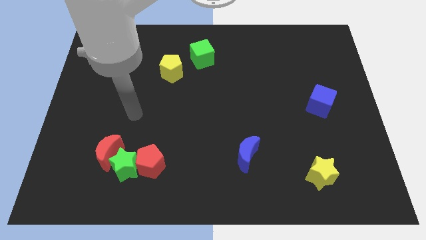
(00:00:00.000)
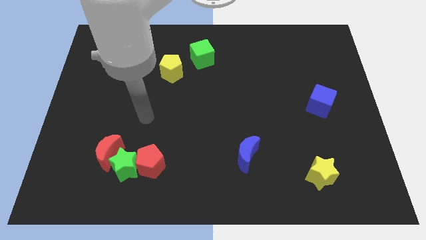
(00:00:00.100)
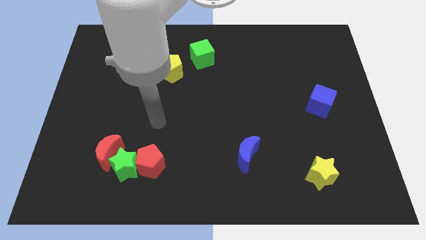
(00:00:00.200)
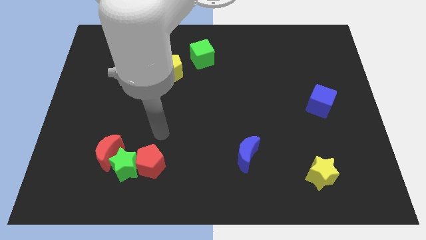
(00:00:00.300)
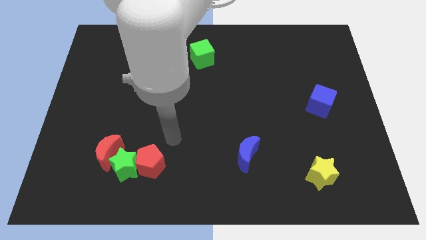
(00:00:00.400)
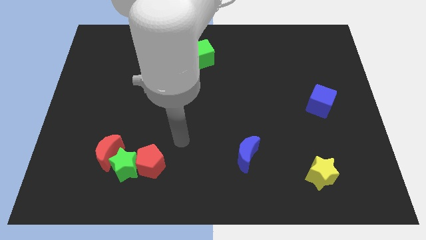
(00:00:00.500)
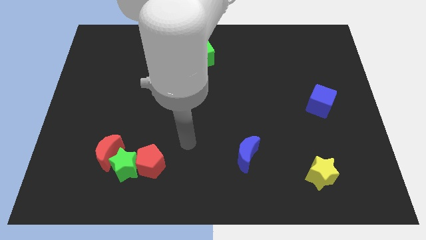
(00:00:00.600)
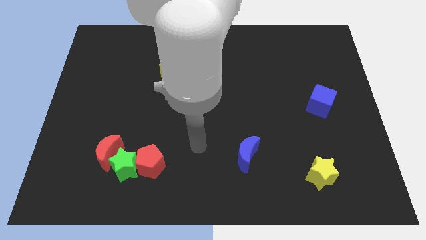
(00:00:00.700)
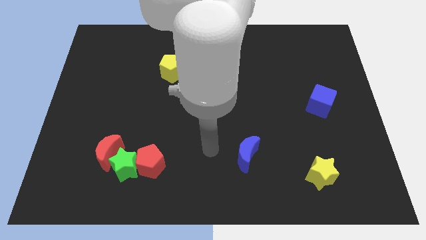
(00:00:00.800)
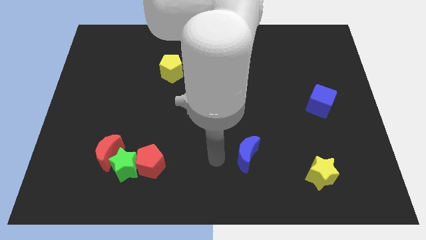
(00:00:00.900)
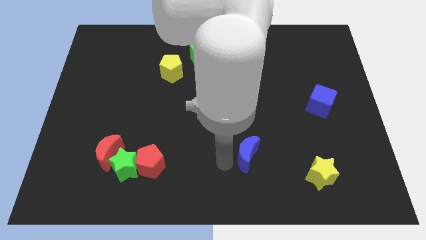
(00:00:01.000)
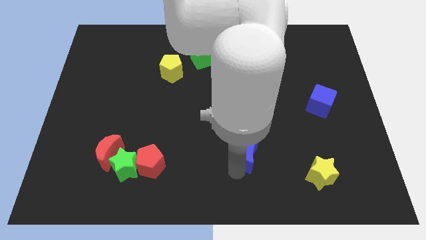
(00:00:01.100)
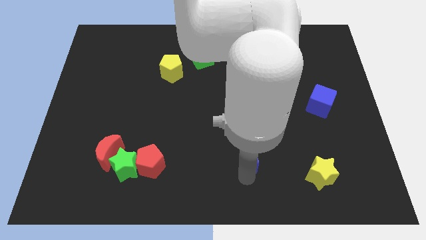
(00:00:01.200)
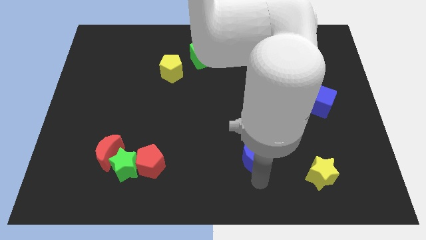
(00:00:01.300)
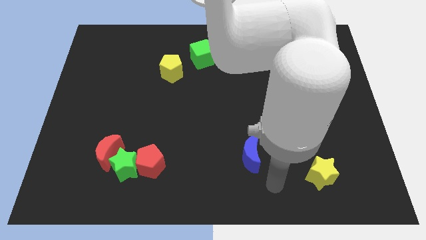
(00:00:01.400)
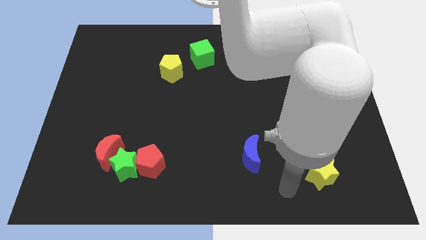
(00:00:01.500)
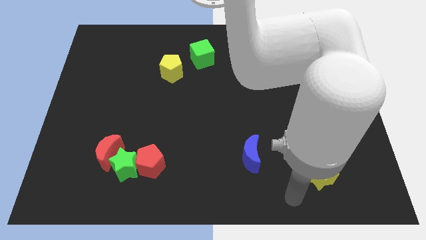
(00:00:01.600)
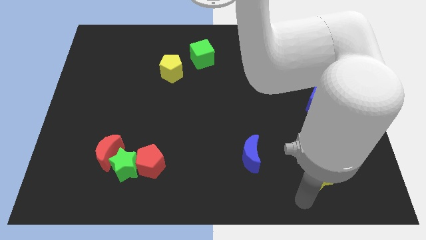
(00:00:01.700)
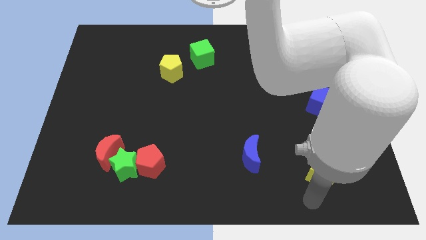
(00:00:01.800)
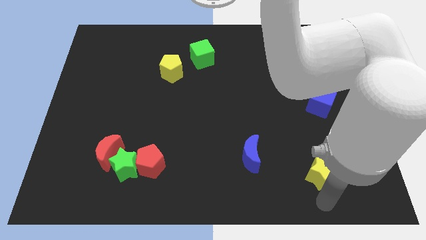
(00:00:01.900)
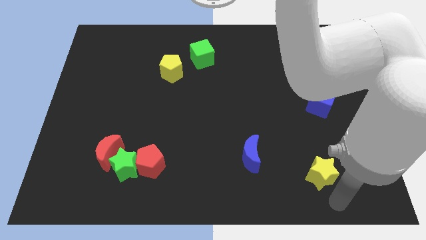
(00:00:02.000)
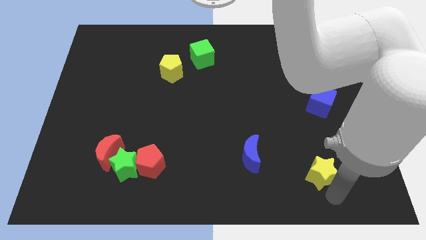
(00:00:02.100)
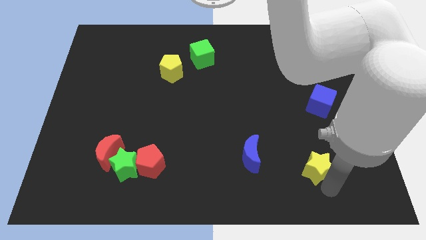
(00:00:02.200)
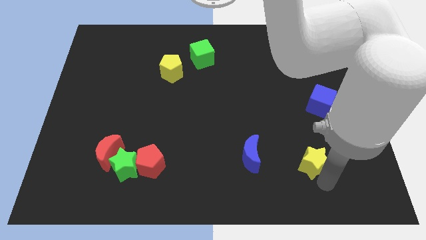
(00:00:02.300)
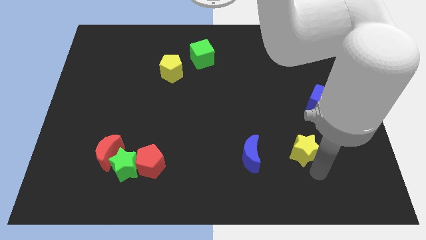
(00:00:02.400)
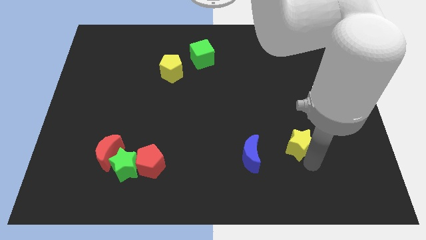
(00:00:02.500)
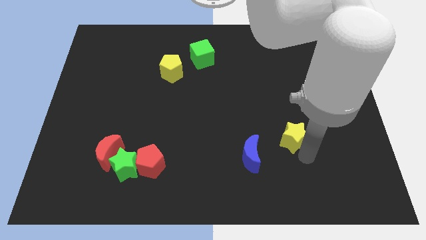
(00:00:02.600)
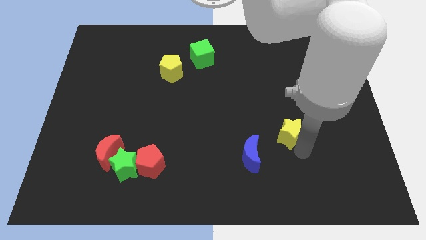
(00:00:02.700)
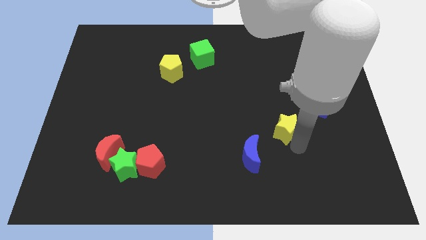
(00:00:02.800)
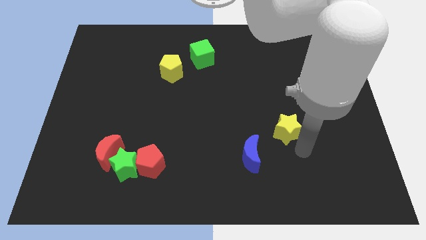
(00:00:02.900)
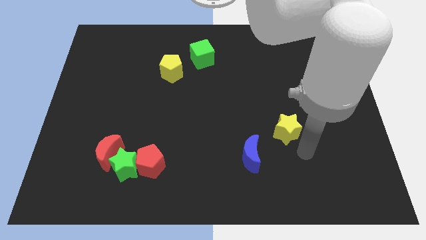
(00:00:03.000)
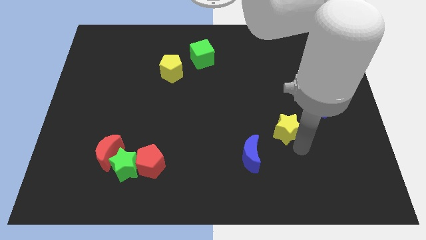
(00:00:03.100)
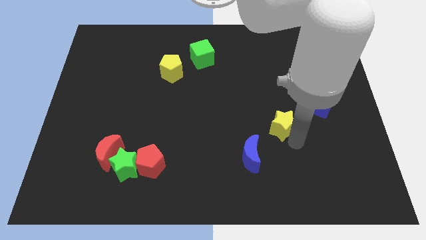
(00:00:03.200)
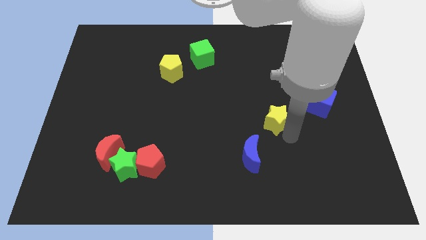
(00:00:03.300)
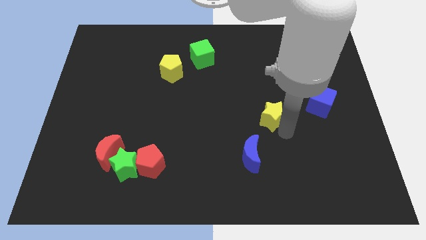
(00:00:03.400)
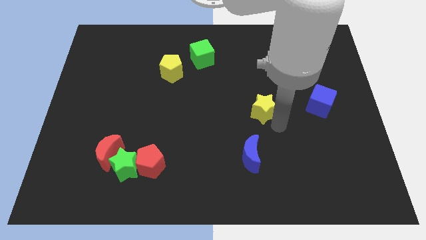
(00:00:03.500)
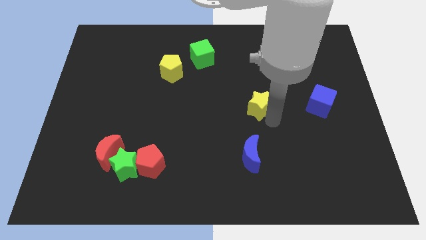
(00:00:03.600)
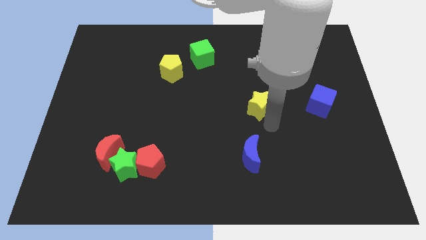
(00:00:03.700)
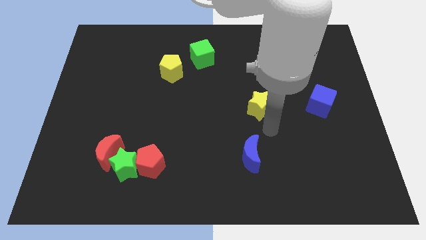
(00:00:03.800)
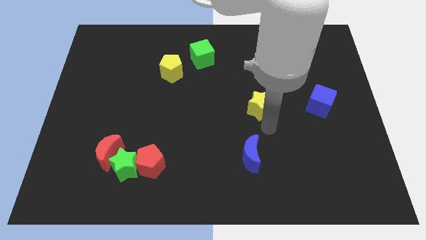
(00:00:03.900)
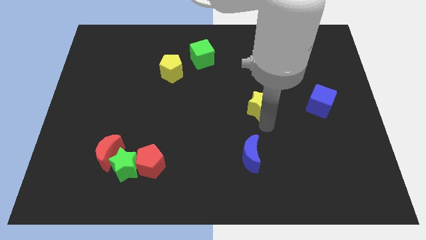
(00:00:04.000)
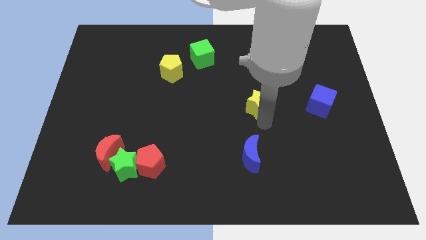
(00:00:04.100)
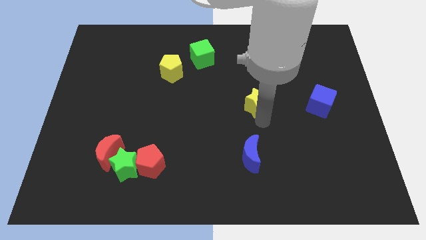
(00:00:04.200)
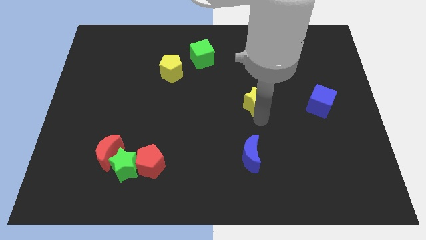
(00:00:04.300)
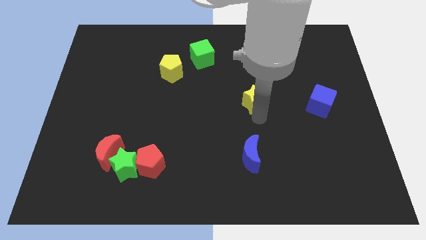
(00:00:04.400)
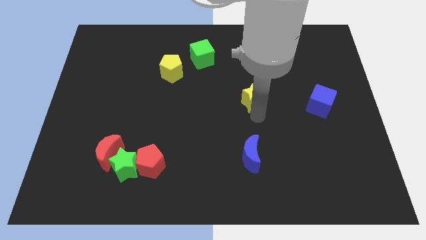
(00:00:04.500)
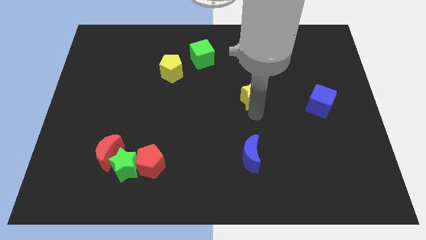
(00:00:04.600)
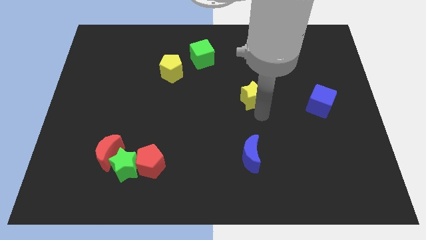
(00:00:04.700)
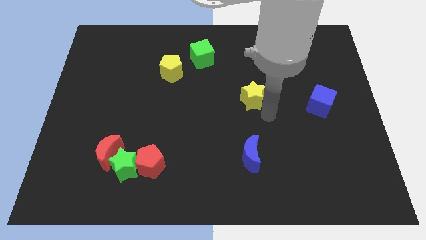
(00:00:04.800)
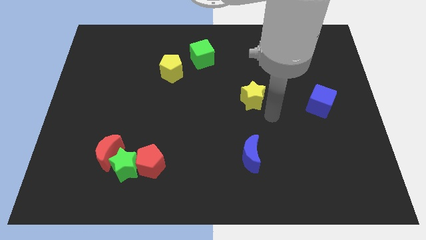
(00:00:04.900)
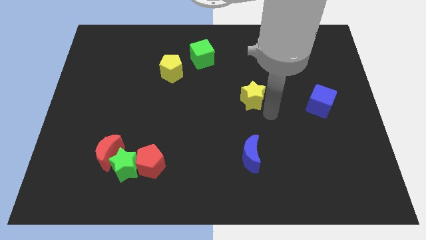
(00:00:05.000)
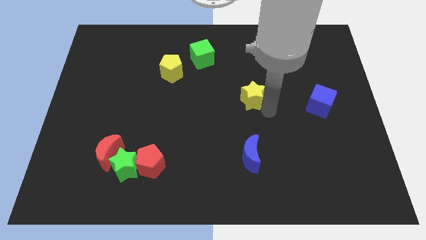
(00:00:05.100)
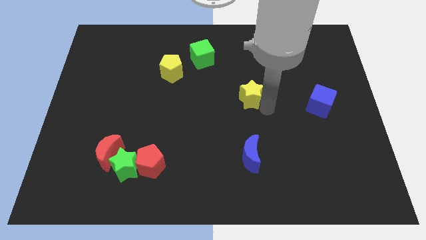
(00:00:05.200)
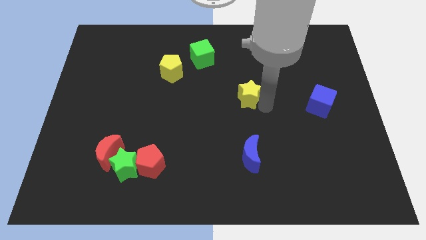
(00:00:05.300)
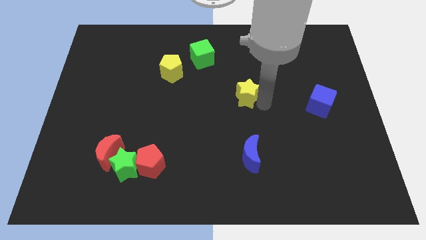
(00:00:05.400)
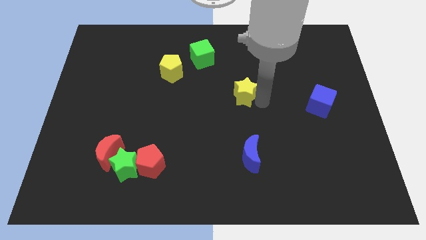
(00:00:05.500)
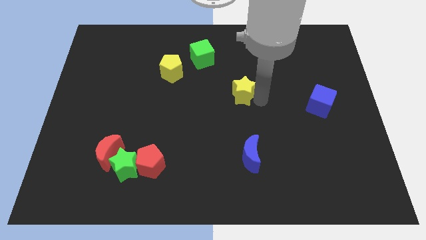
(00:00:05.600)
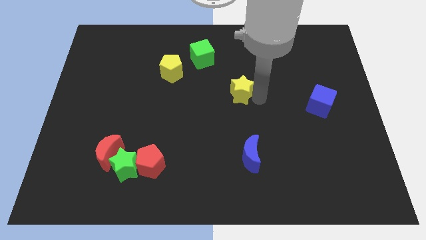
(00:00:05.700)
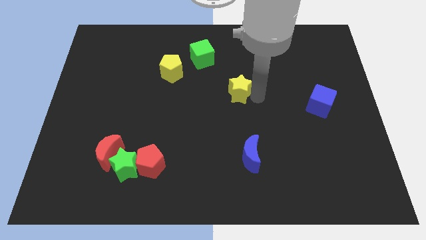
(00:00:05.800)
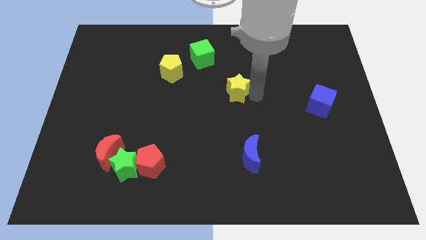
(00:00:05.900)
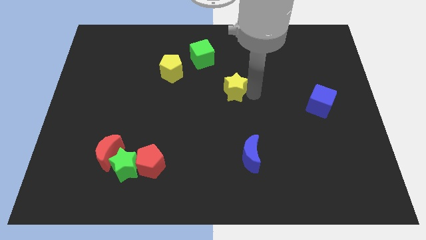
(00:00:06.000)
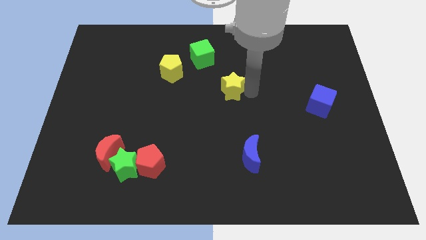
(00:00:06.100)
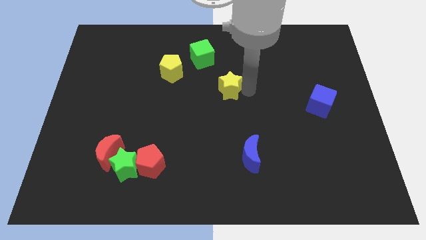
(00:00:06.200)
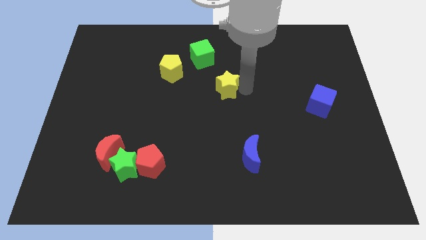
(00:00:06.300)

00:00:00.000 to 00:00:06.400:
slide the yellow star to the bottom right of the green cube
